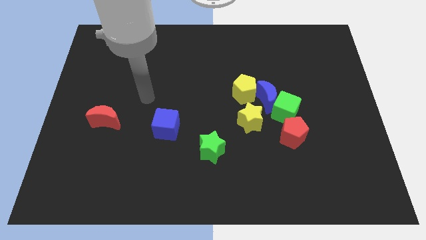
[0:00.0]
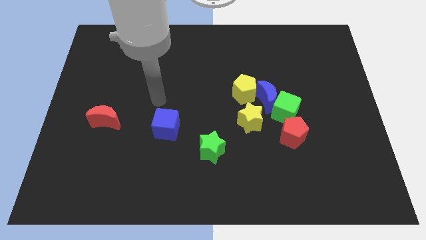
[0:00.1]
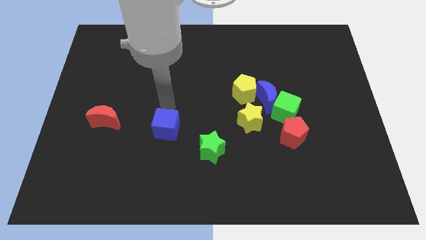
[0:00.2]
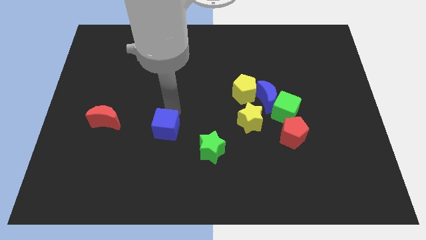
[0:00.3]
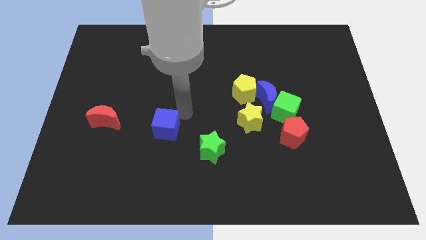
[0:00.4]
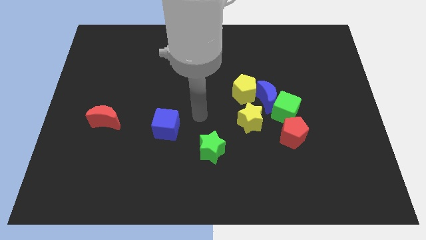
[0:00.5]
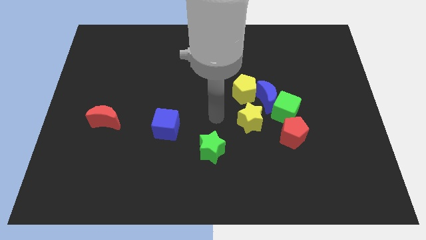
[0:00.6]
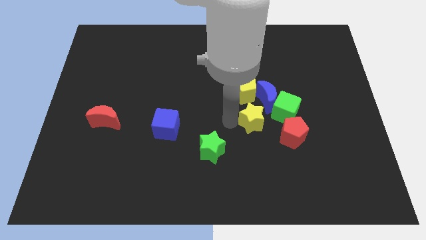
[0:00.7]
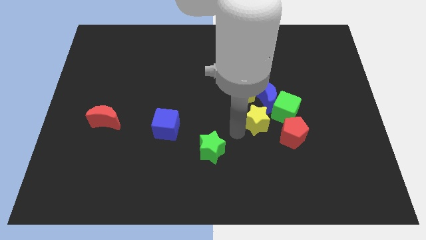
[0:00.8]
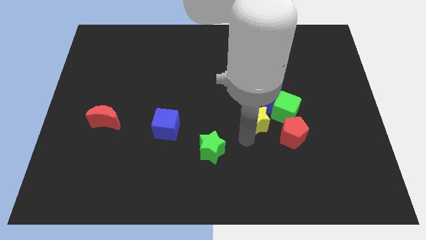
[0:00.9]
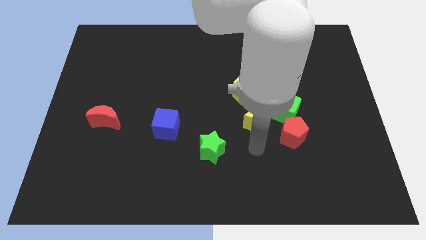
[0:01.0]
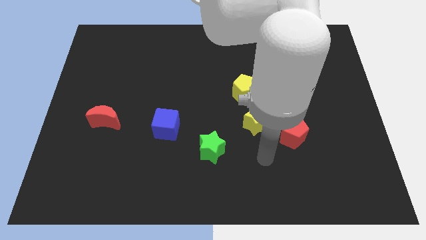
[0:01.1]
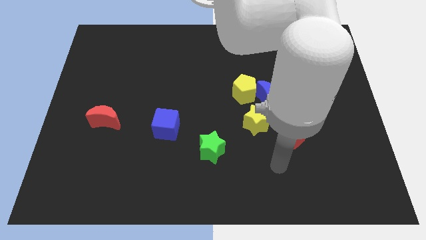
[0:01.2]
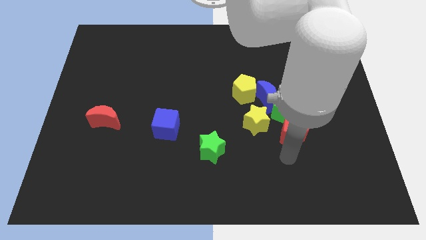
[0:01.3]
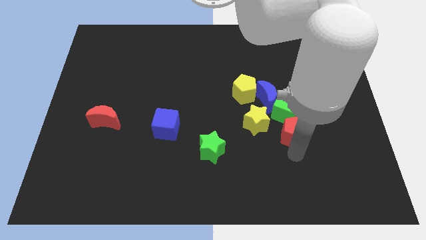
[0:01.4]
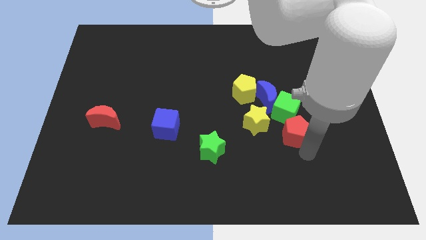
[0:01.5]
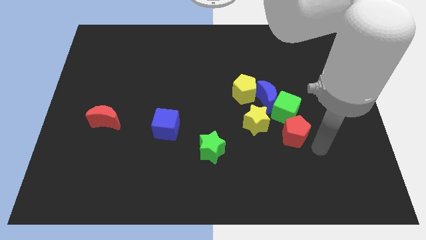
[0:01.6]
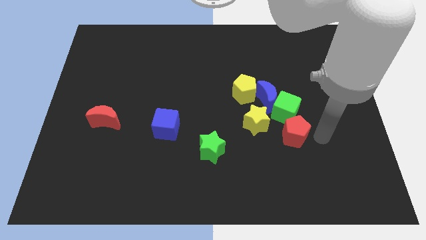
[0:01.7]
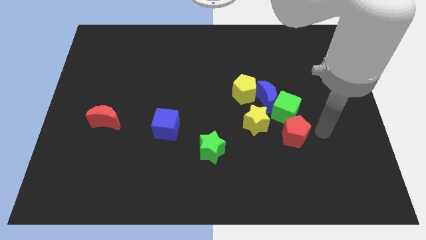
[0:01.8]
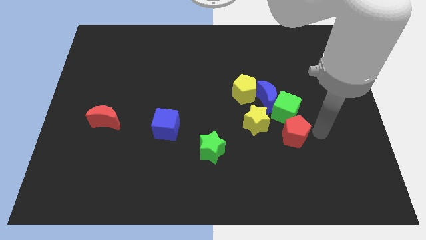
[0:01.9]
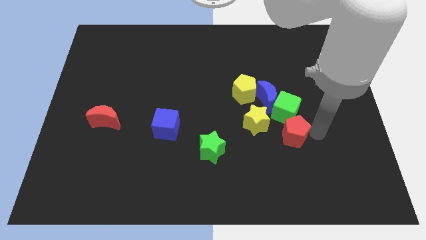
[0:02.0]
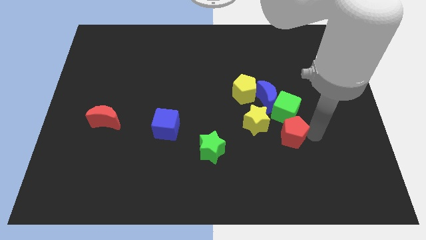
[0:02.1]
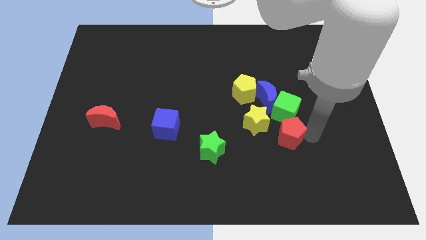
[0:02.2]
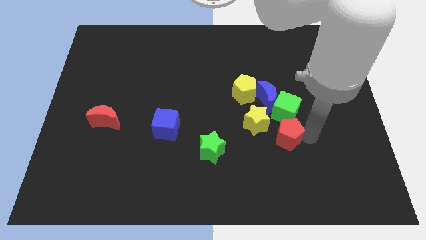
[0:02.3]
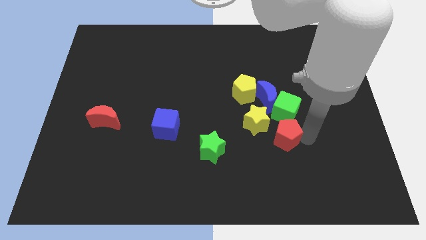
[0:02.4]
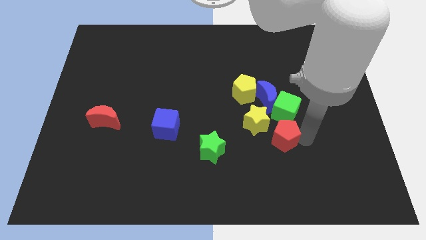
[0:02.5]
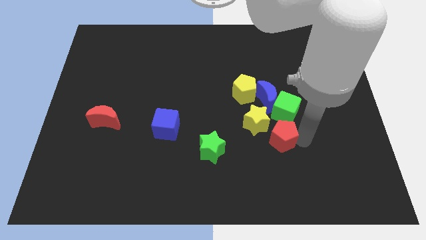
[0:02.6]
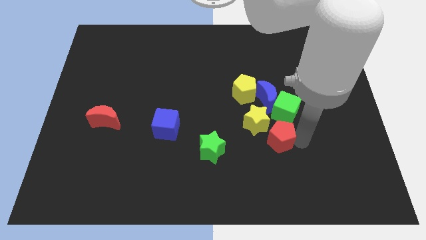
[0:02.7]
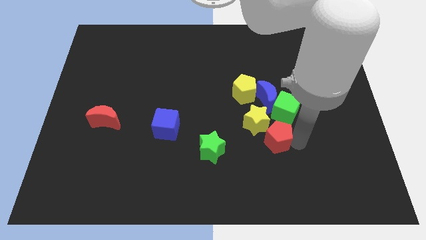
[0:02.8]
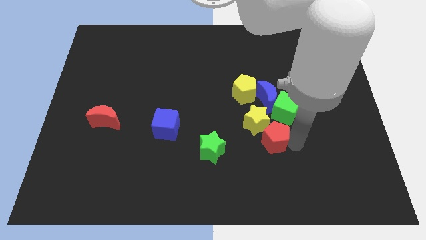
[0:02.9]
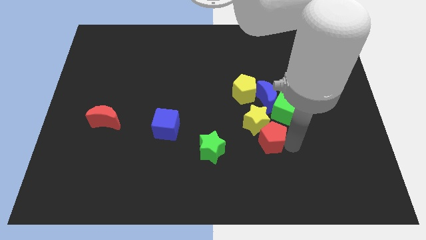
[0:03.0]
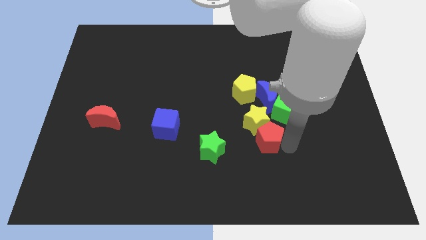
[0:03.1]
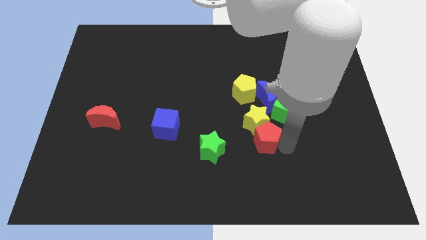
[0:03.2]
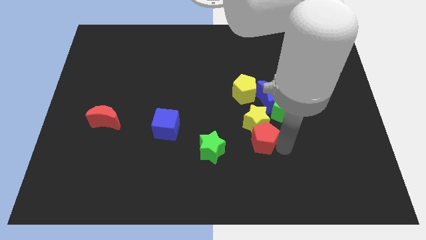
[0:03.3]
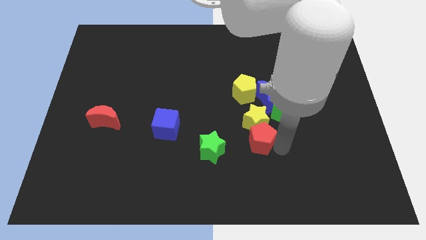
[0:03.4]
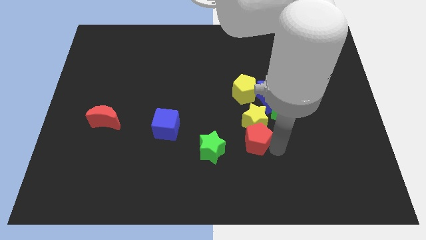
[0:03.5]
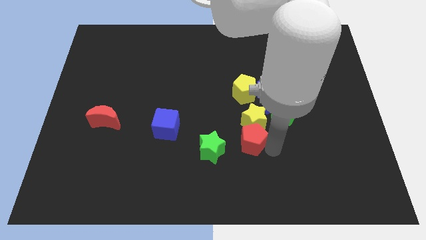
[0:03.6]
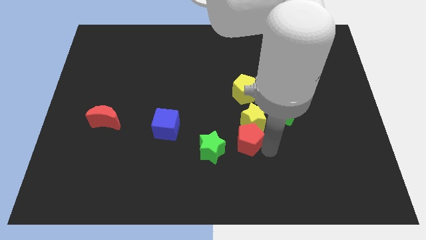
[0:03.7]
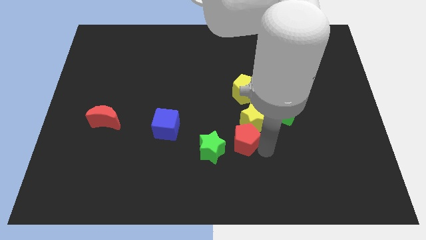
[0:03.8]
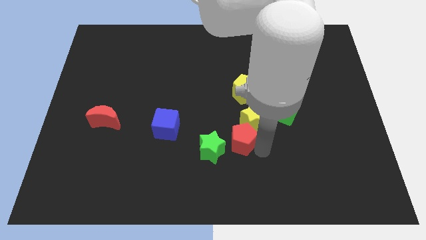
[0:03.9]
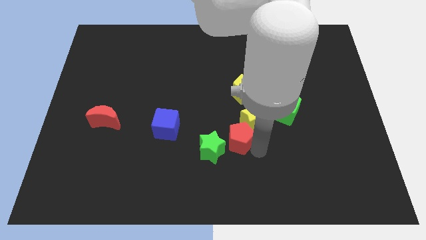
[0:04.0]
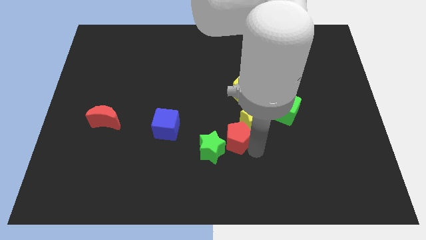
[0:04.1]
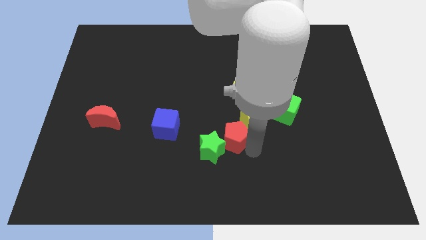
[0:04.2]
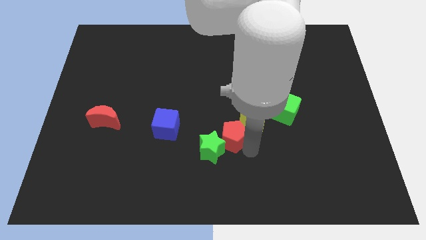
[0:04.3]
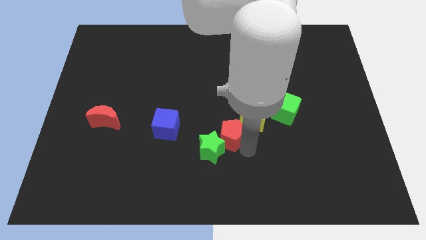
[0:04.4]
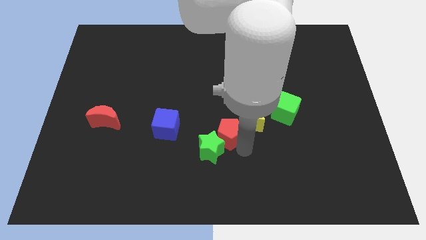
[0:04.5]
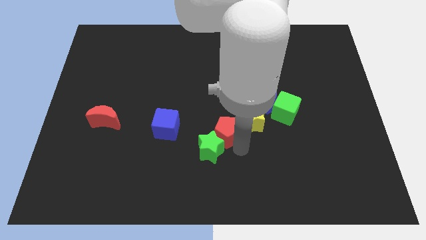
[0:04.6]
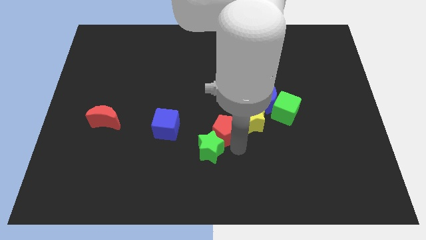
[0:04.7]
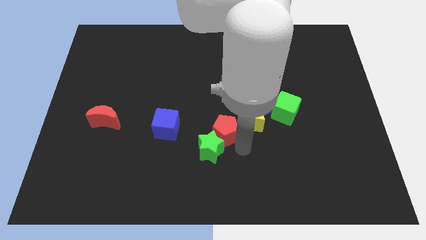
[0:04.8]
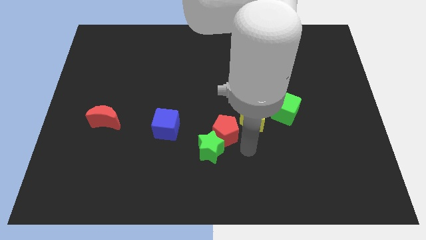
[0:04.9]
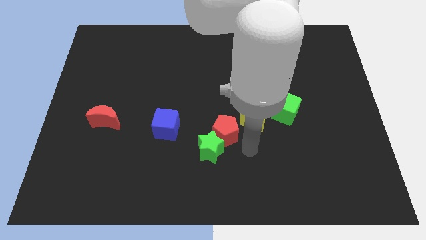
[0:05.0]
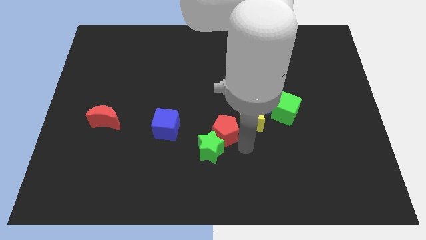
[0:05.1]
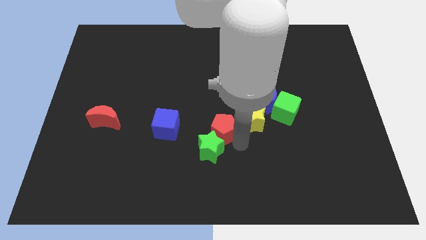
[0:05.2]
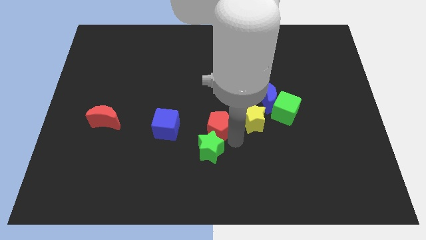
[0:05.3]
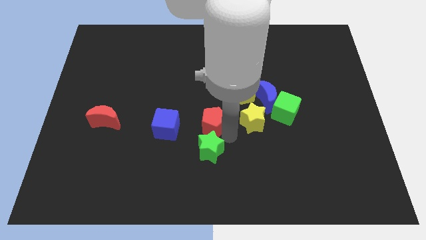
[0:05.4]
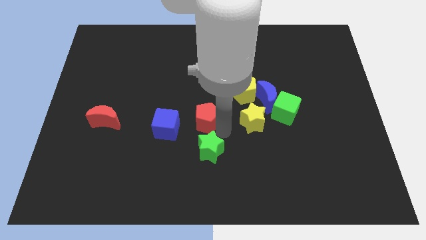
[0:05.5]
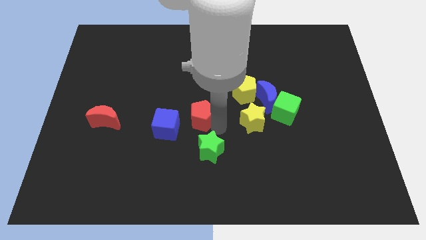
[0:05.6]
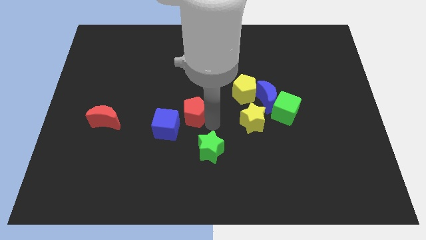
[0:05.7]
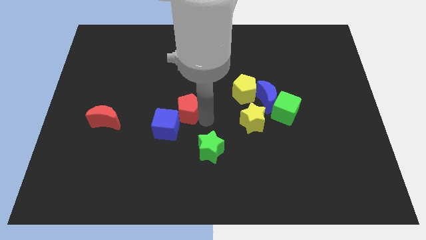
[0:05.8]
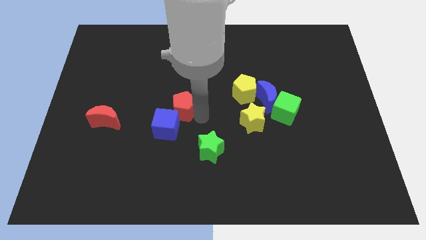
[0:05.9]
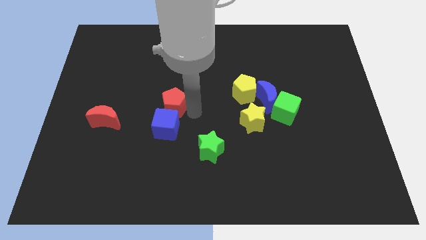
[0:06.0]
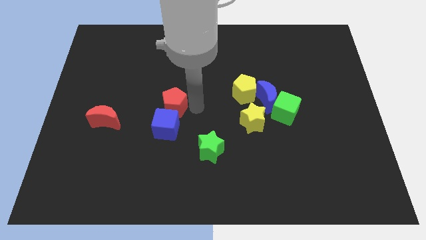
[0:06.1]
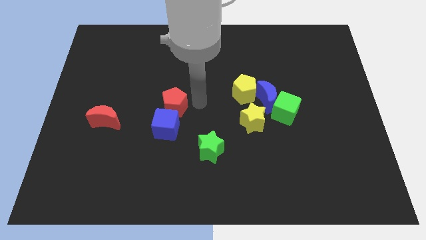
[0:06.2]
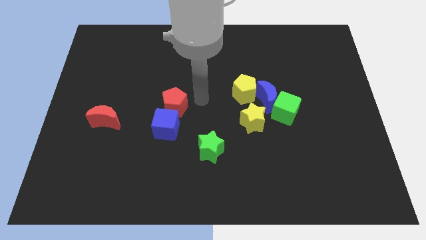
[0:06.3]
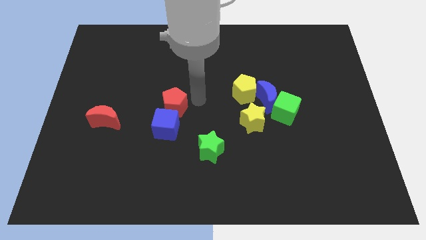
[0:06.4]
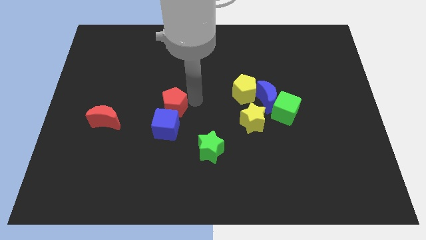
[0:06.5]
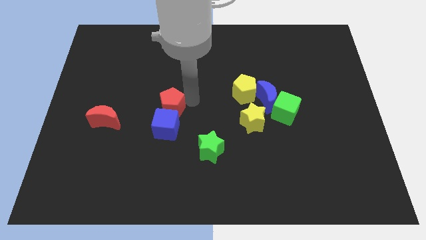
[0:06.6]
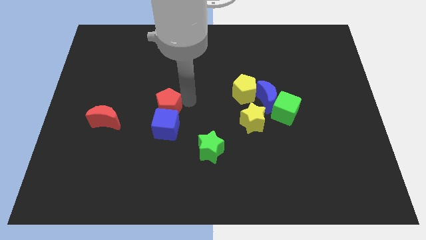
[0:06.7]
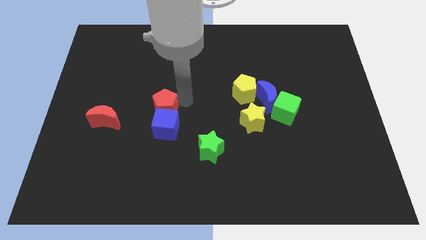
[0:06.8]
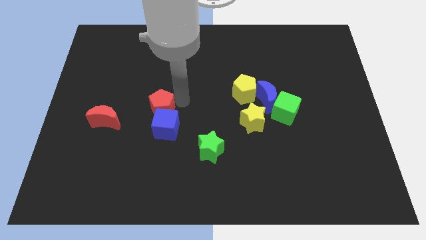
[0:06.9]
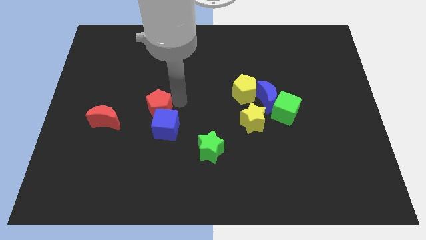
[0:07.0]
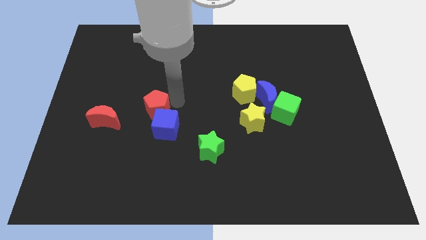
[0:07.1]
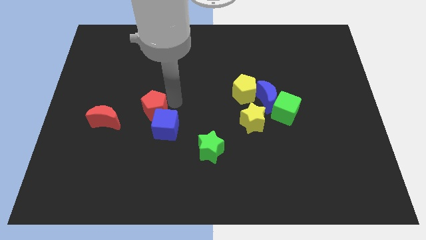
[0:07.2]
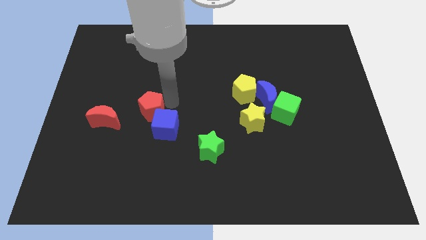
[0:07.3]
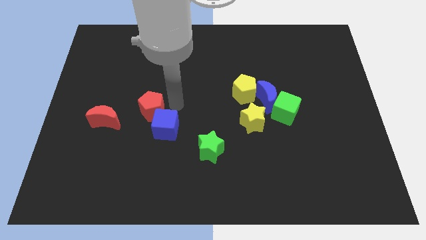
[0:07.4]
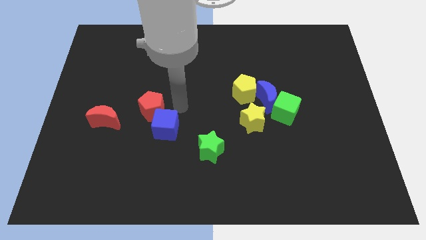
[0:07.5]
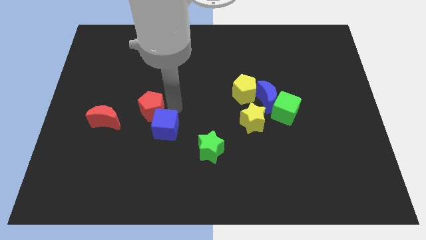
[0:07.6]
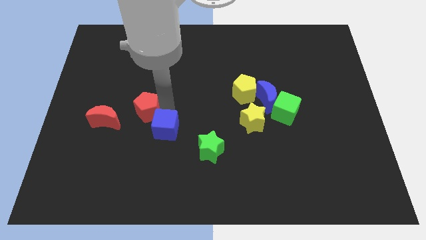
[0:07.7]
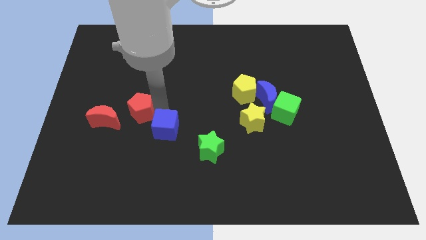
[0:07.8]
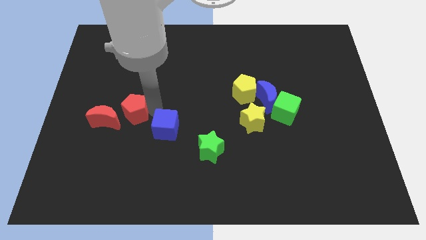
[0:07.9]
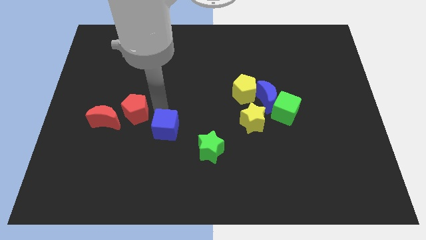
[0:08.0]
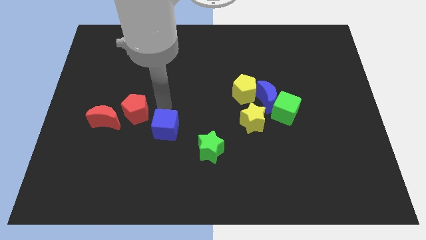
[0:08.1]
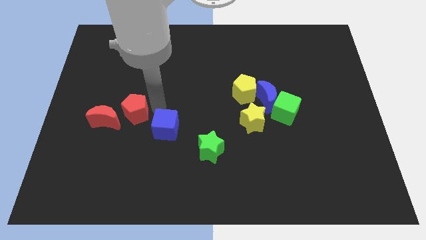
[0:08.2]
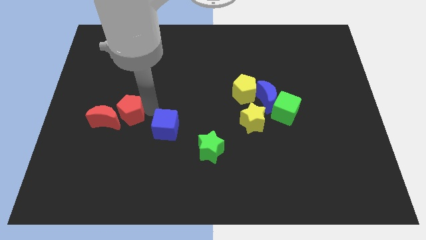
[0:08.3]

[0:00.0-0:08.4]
put the red pentagon next to the red moon
